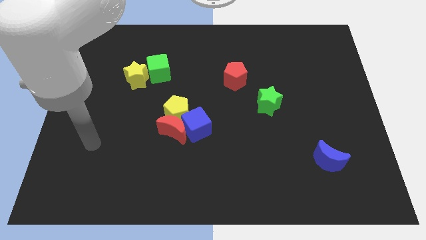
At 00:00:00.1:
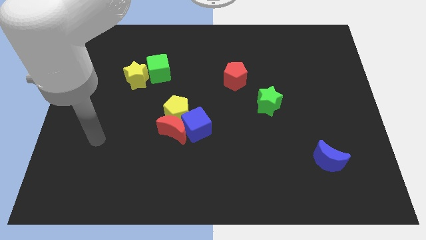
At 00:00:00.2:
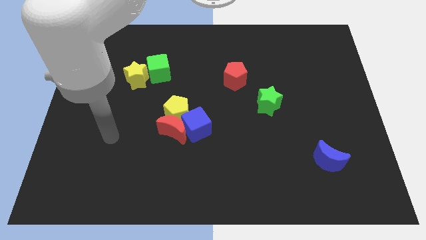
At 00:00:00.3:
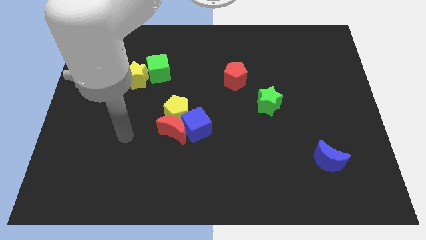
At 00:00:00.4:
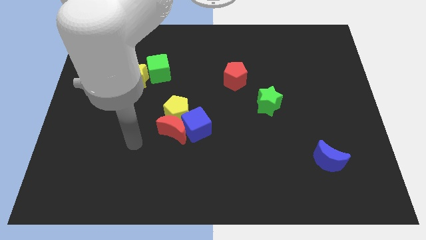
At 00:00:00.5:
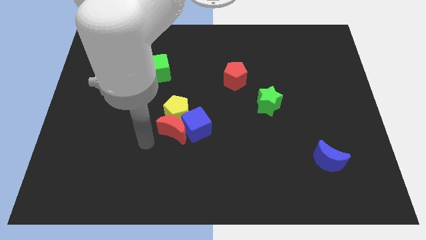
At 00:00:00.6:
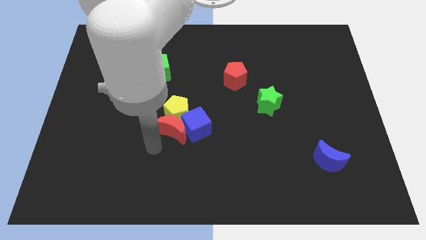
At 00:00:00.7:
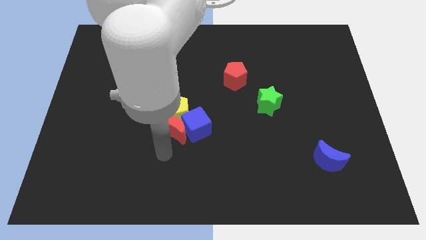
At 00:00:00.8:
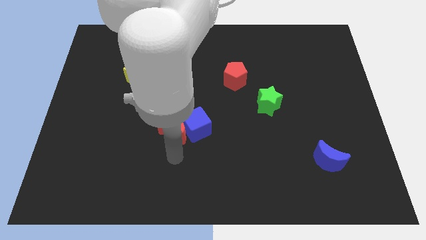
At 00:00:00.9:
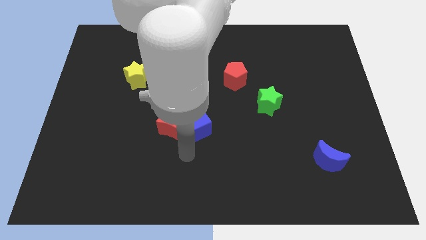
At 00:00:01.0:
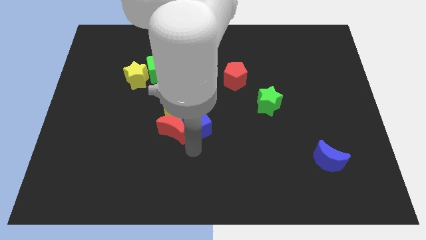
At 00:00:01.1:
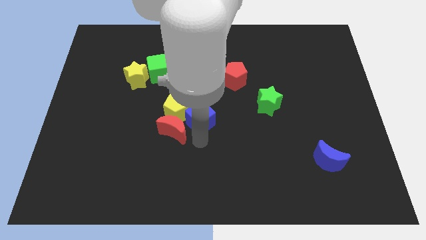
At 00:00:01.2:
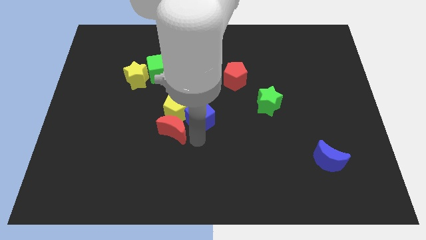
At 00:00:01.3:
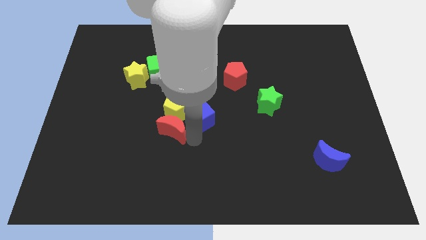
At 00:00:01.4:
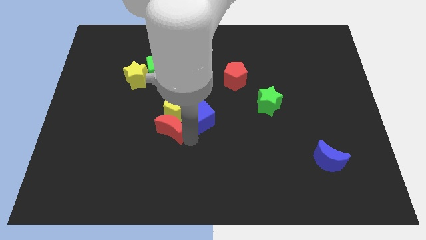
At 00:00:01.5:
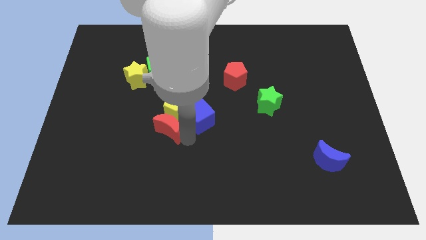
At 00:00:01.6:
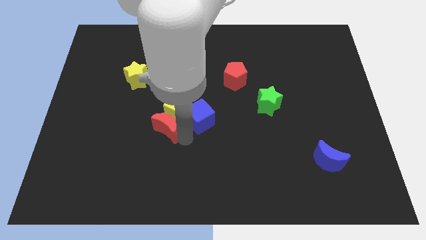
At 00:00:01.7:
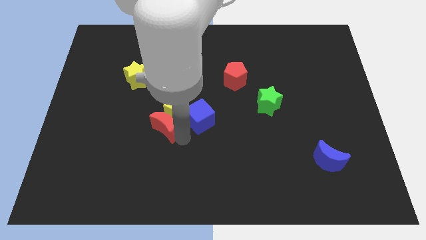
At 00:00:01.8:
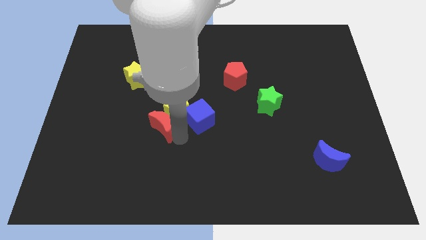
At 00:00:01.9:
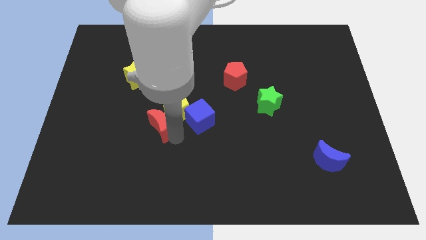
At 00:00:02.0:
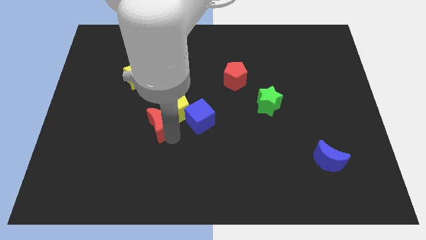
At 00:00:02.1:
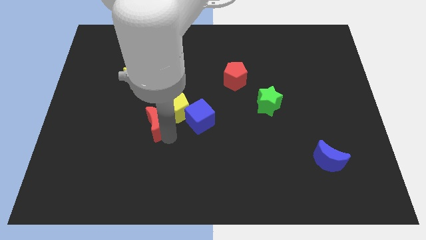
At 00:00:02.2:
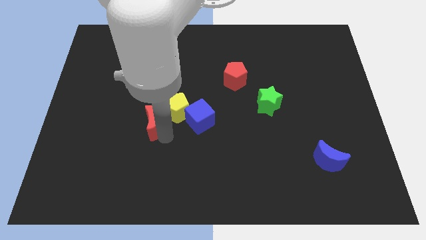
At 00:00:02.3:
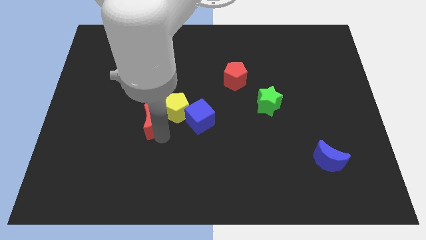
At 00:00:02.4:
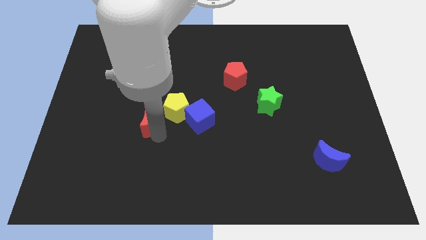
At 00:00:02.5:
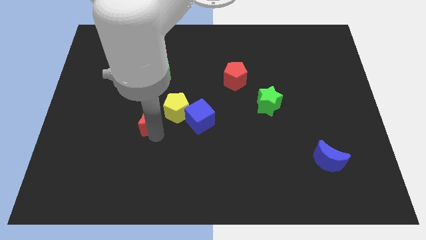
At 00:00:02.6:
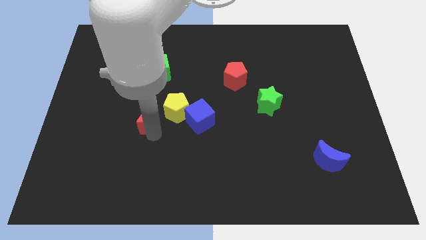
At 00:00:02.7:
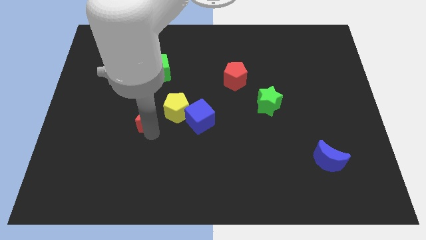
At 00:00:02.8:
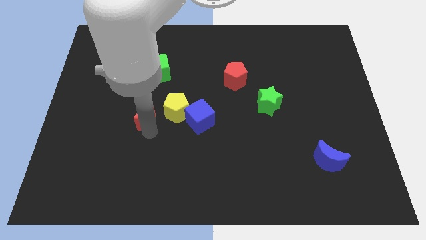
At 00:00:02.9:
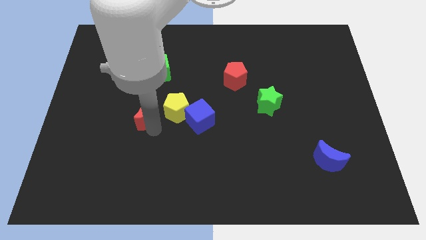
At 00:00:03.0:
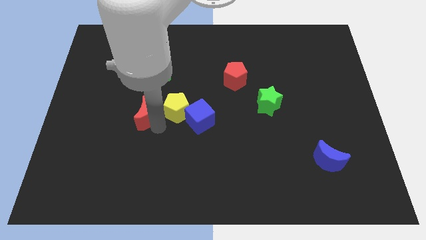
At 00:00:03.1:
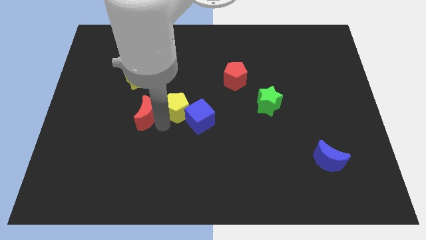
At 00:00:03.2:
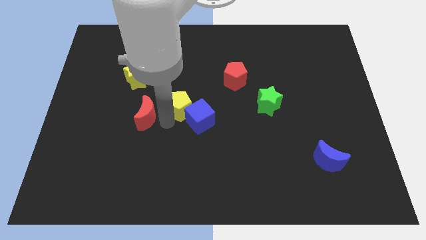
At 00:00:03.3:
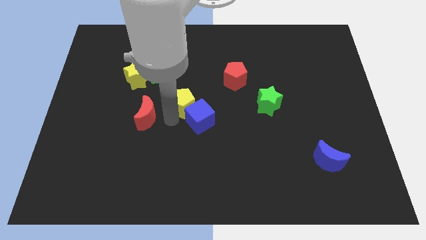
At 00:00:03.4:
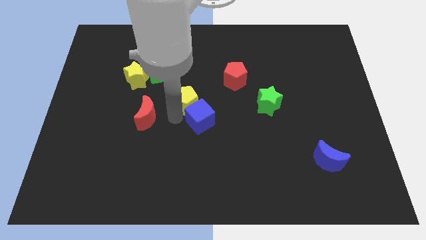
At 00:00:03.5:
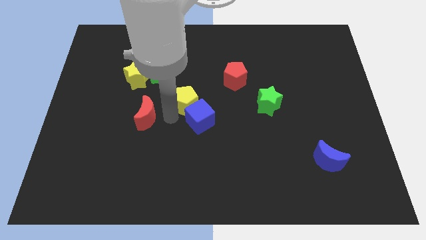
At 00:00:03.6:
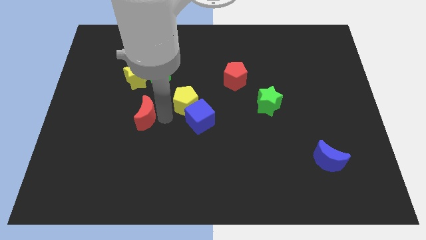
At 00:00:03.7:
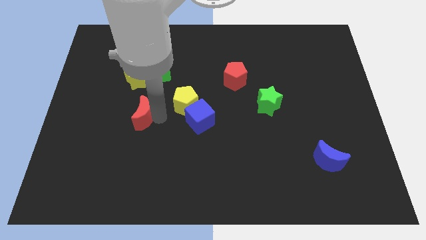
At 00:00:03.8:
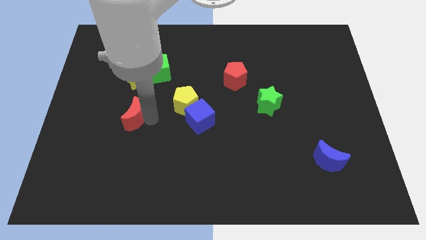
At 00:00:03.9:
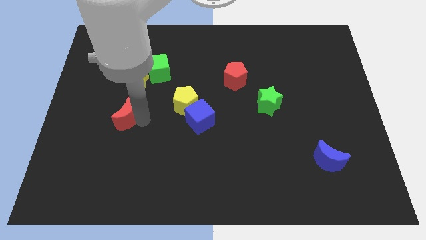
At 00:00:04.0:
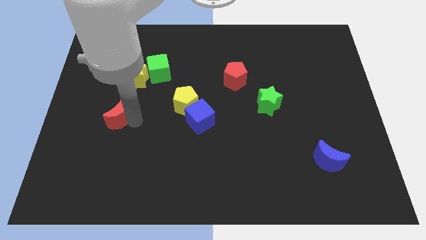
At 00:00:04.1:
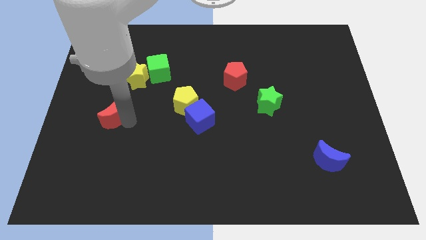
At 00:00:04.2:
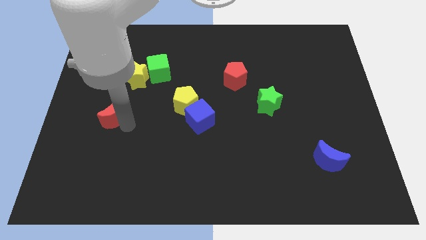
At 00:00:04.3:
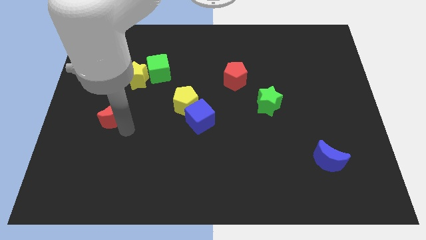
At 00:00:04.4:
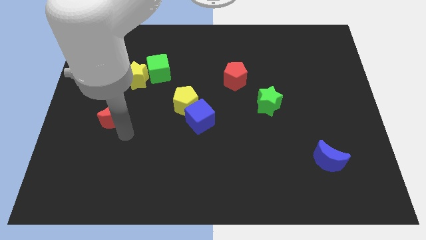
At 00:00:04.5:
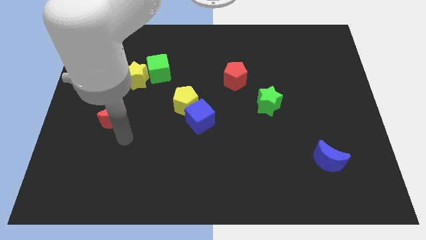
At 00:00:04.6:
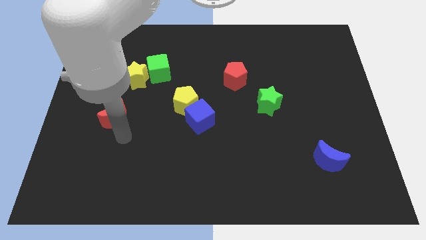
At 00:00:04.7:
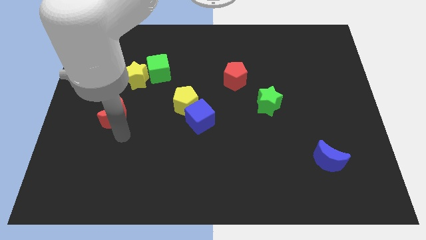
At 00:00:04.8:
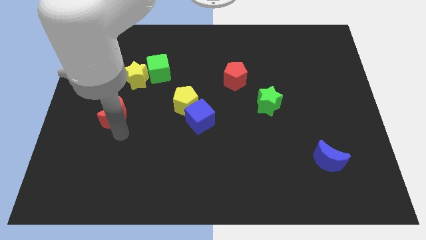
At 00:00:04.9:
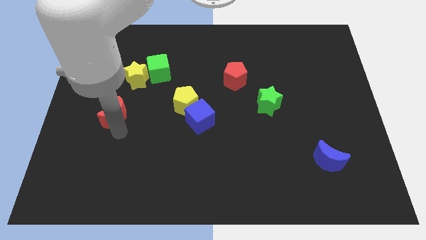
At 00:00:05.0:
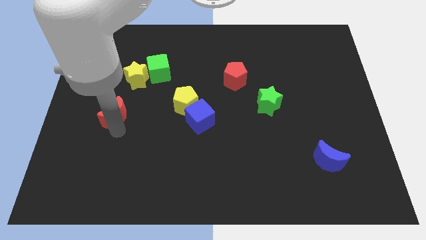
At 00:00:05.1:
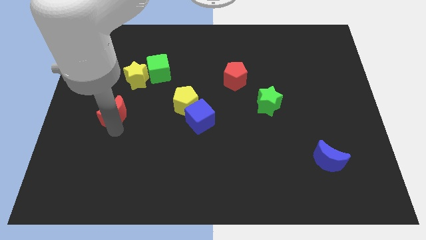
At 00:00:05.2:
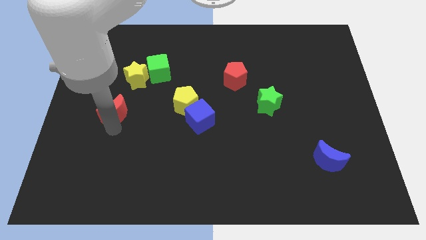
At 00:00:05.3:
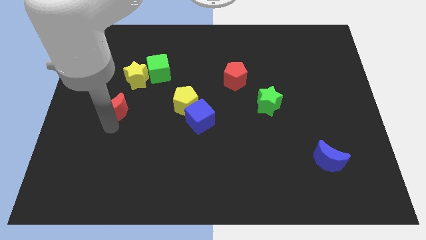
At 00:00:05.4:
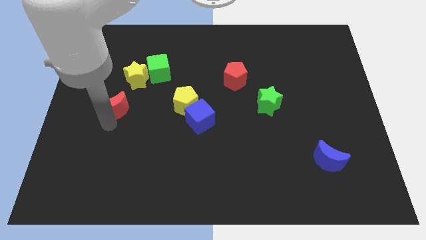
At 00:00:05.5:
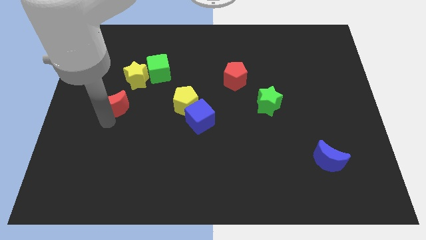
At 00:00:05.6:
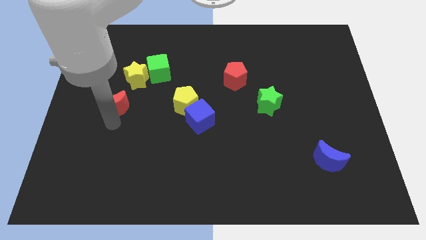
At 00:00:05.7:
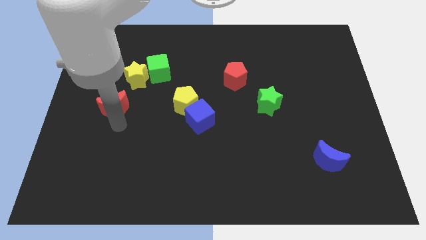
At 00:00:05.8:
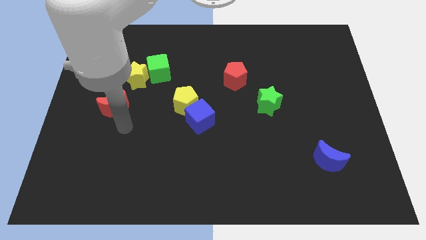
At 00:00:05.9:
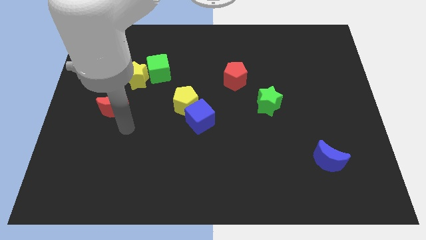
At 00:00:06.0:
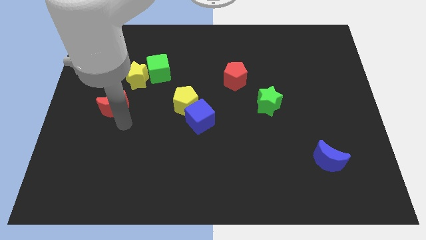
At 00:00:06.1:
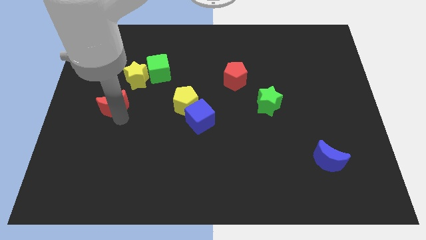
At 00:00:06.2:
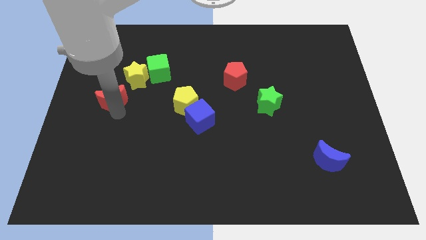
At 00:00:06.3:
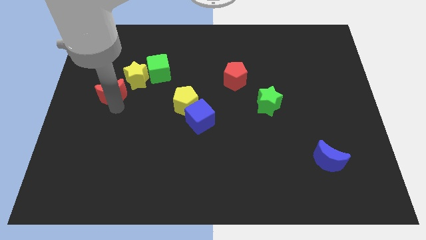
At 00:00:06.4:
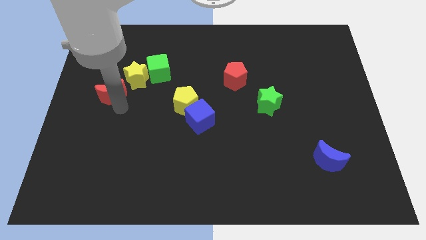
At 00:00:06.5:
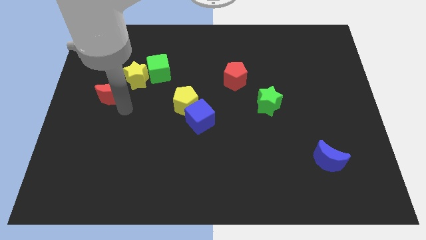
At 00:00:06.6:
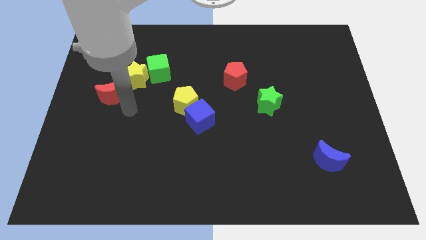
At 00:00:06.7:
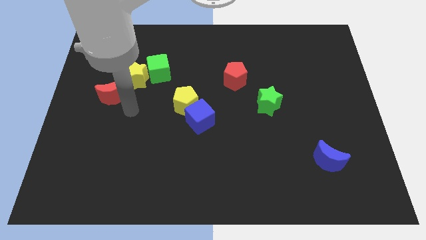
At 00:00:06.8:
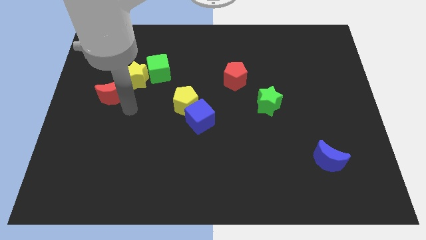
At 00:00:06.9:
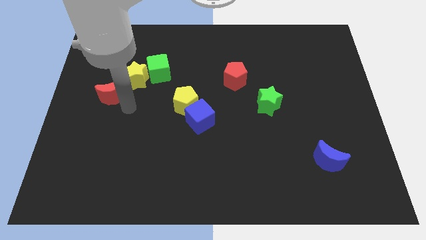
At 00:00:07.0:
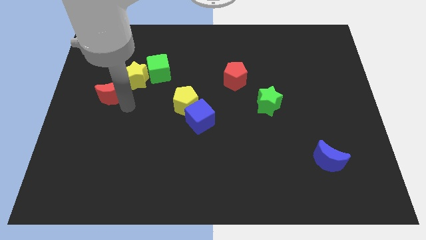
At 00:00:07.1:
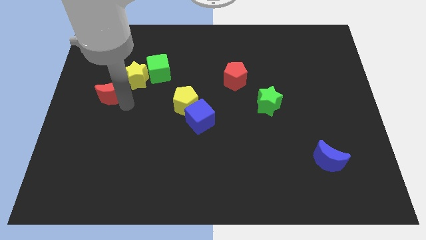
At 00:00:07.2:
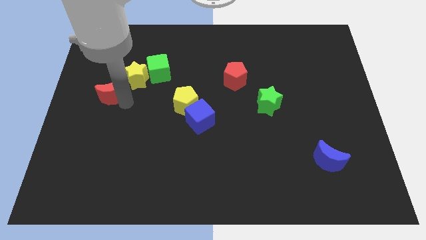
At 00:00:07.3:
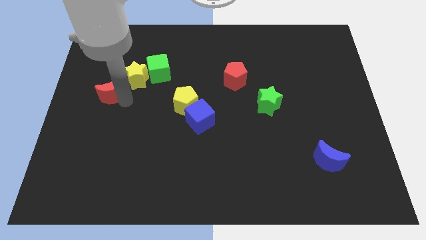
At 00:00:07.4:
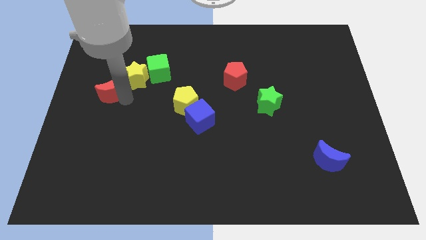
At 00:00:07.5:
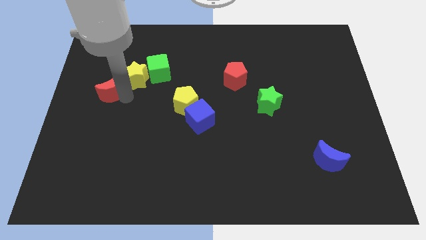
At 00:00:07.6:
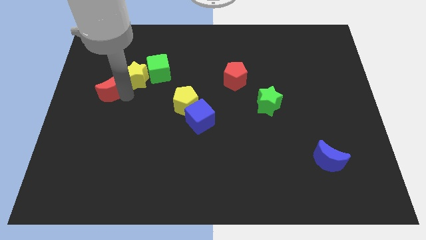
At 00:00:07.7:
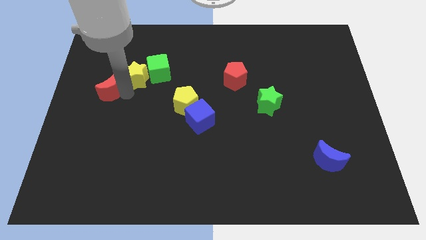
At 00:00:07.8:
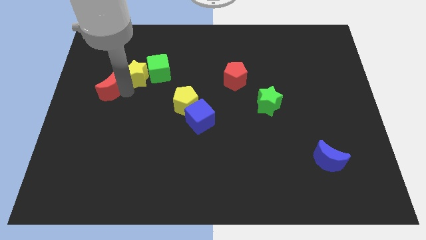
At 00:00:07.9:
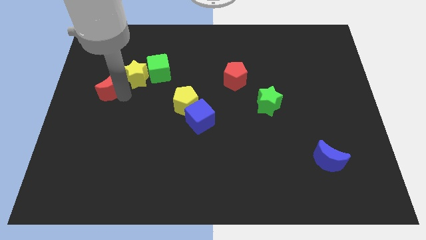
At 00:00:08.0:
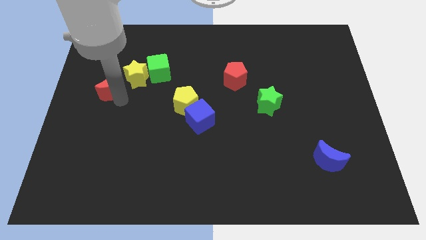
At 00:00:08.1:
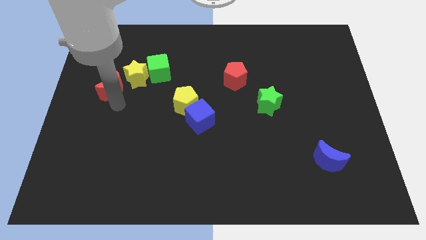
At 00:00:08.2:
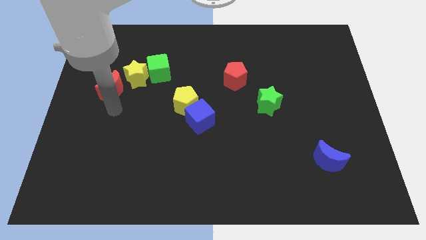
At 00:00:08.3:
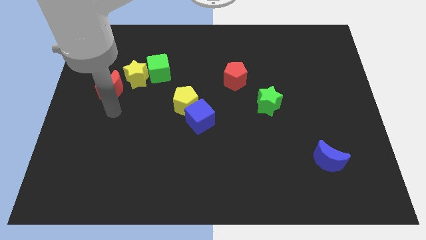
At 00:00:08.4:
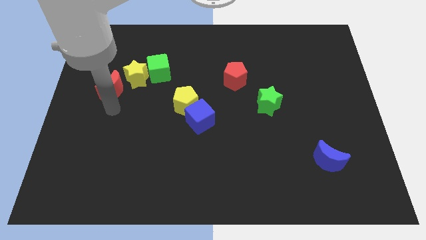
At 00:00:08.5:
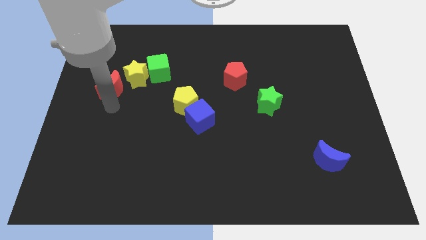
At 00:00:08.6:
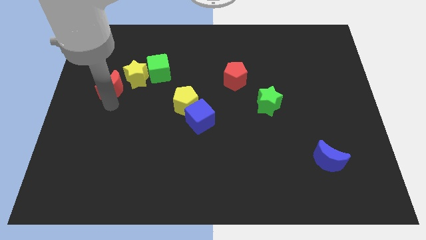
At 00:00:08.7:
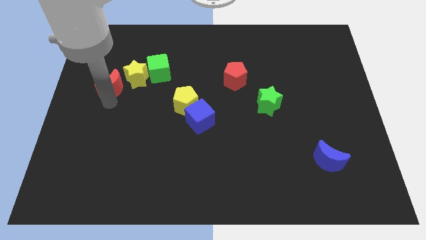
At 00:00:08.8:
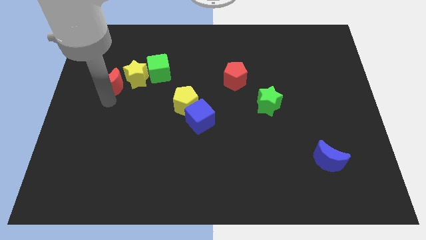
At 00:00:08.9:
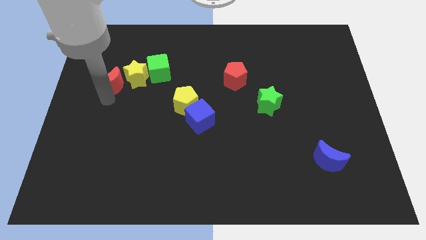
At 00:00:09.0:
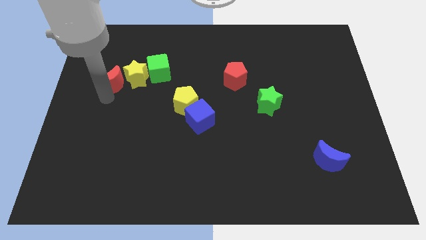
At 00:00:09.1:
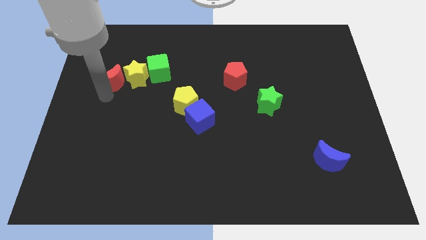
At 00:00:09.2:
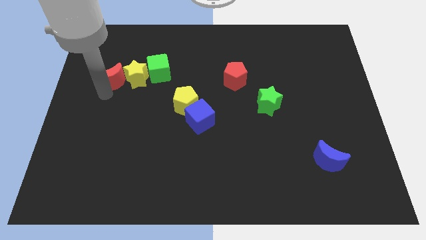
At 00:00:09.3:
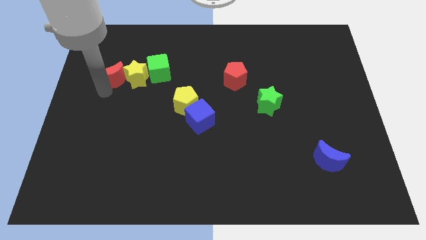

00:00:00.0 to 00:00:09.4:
push the red moon to the top left side of the yellow star
